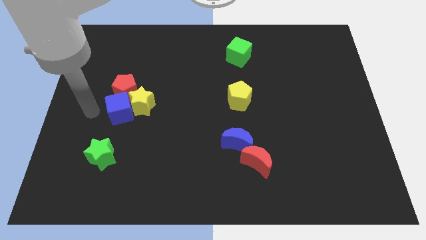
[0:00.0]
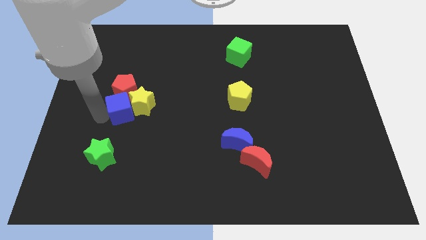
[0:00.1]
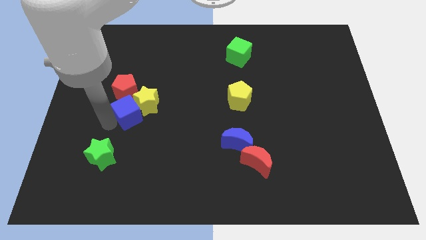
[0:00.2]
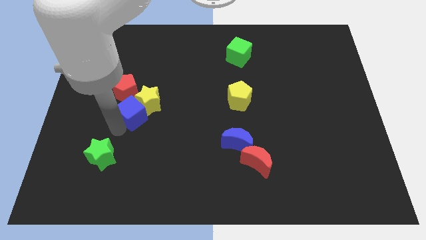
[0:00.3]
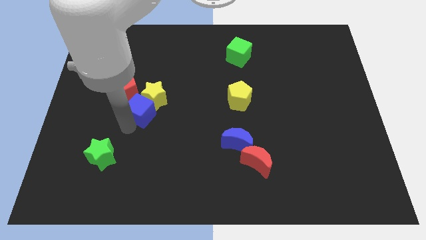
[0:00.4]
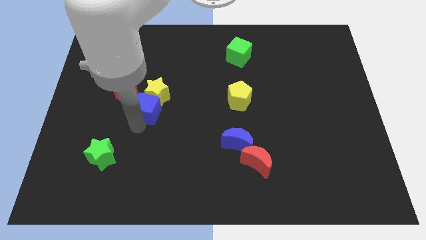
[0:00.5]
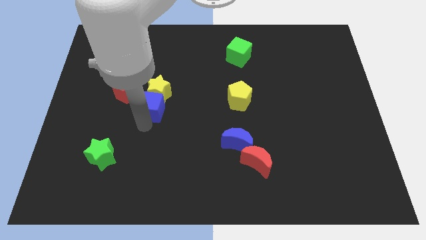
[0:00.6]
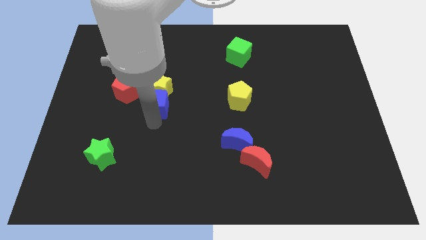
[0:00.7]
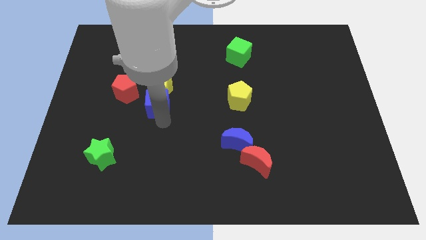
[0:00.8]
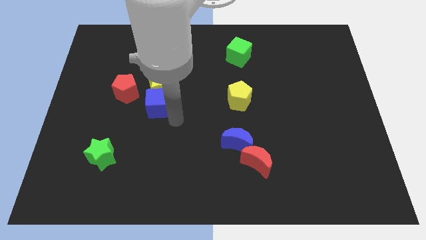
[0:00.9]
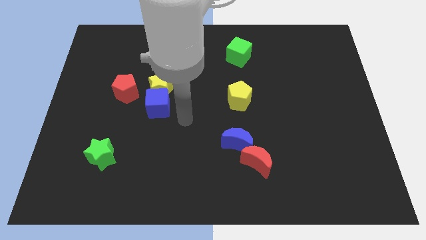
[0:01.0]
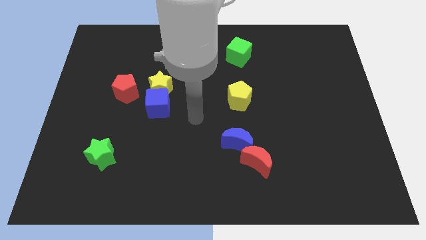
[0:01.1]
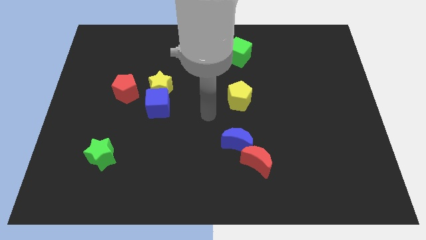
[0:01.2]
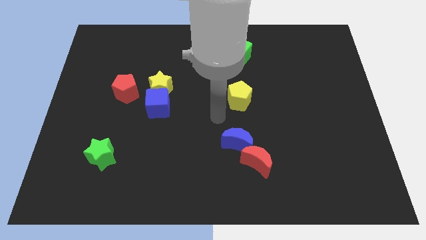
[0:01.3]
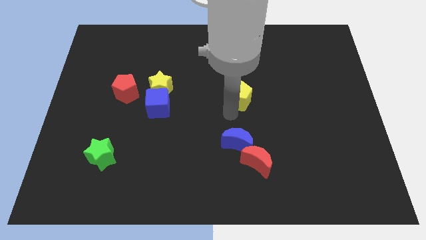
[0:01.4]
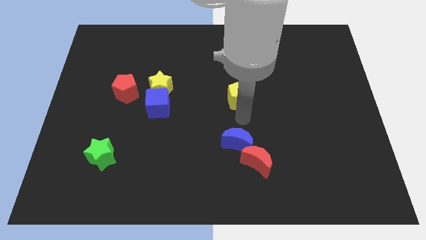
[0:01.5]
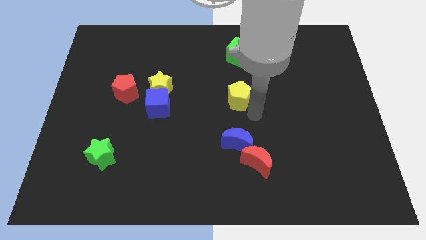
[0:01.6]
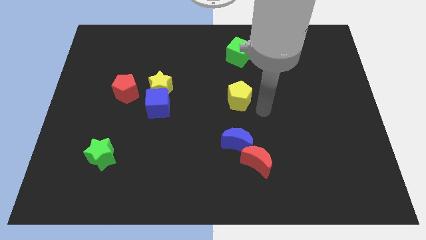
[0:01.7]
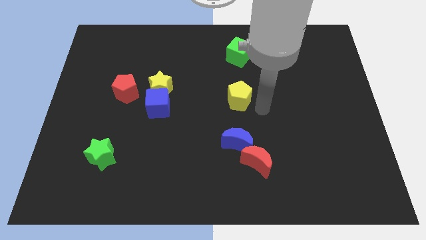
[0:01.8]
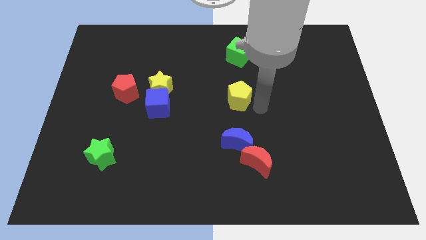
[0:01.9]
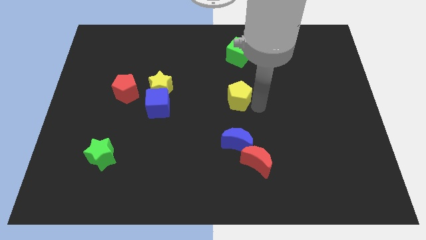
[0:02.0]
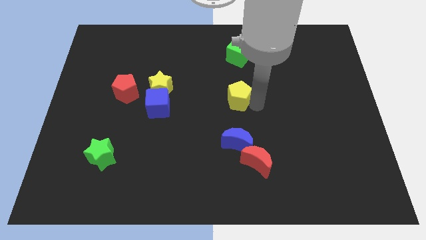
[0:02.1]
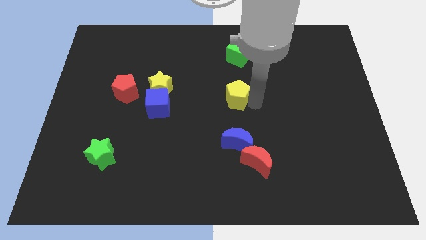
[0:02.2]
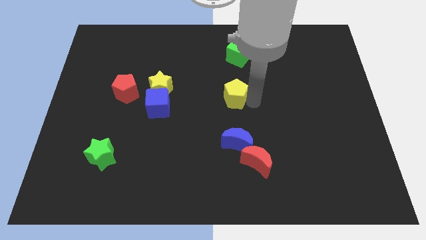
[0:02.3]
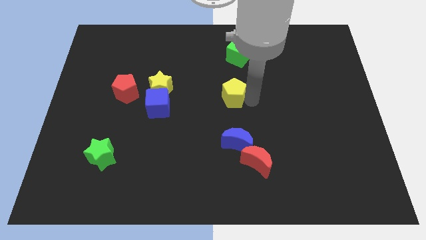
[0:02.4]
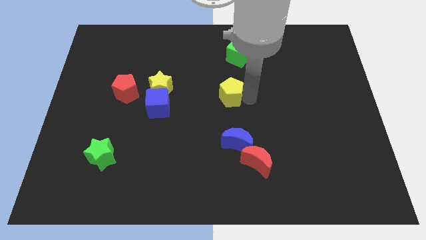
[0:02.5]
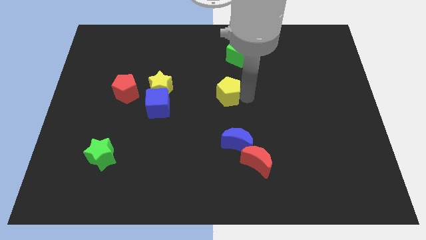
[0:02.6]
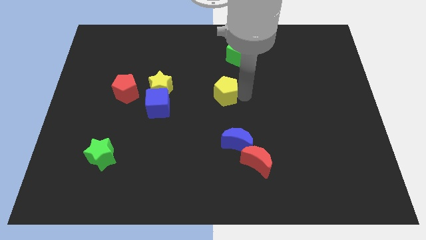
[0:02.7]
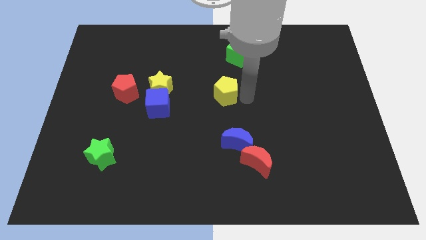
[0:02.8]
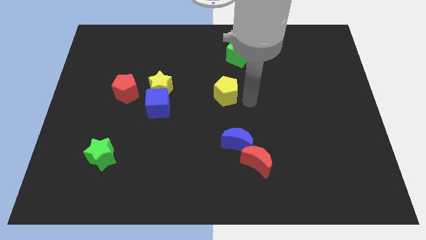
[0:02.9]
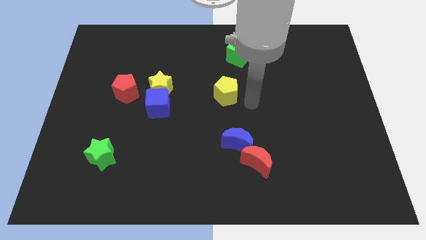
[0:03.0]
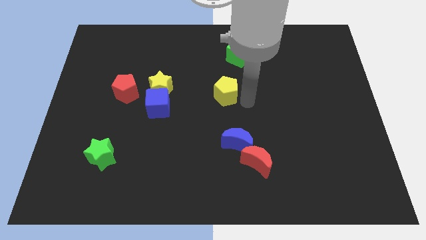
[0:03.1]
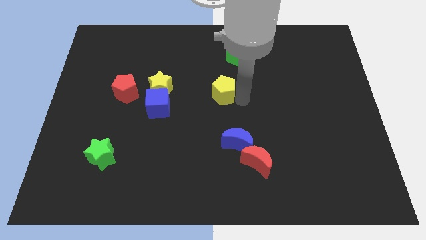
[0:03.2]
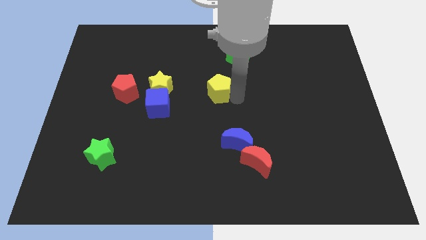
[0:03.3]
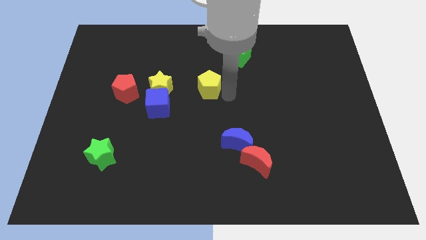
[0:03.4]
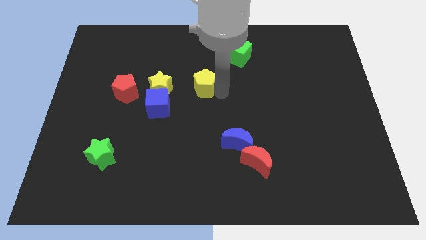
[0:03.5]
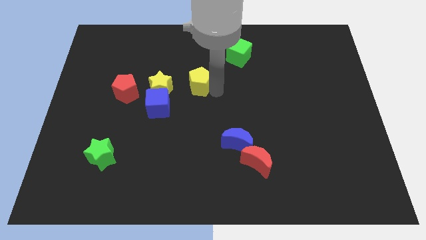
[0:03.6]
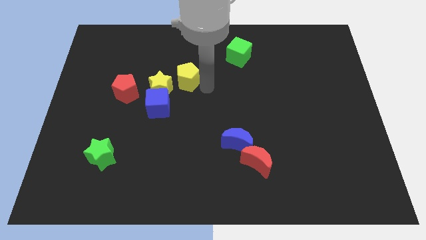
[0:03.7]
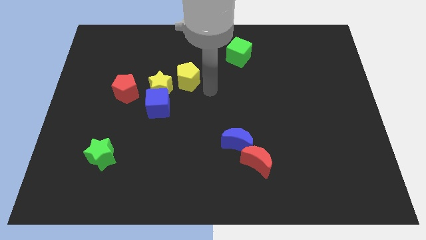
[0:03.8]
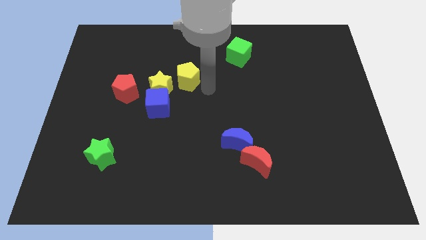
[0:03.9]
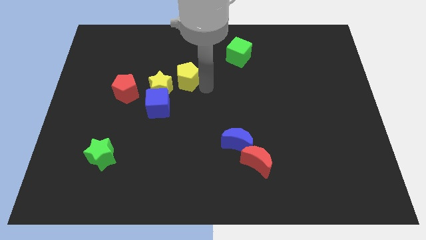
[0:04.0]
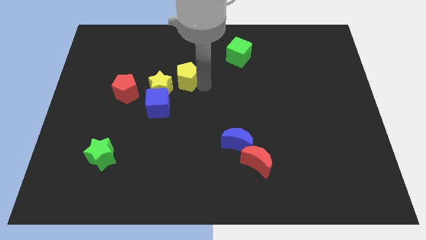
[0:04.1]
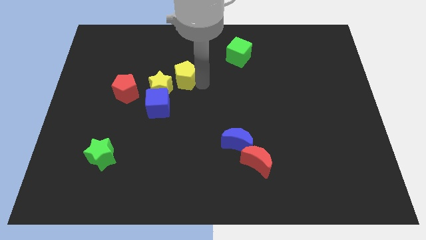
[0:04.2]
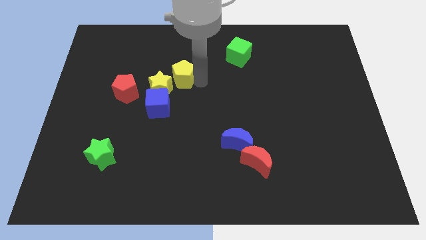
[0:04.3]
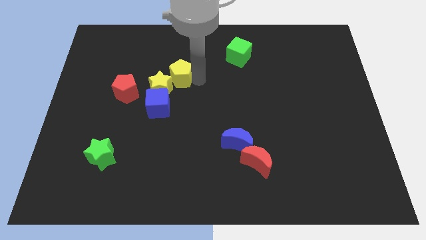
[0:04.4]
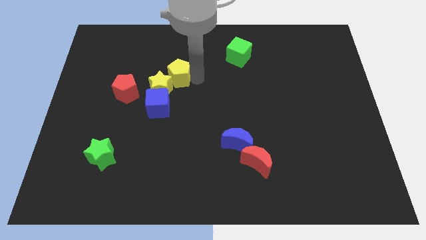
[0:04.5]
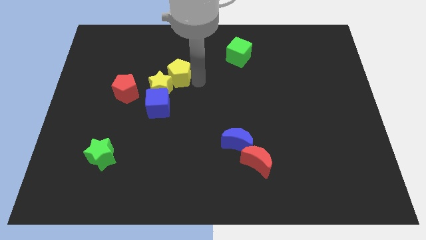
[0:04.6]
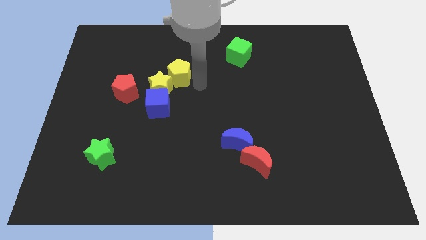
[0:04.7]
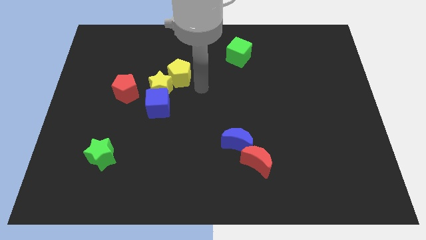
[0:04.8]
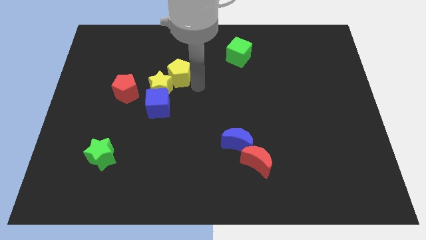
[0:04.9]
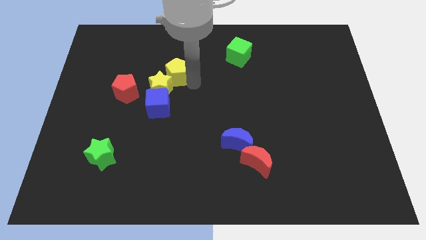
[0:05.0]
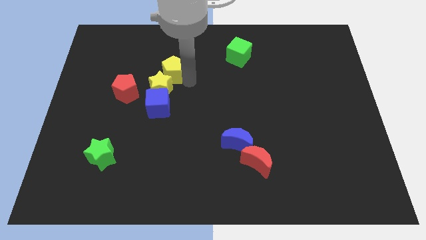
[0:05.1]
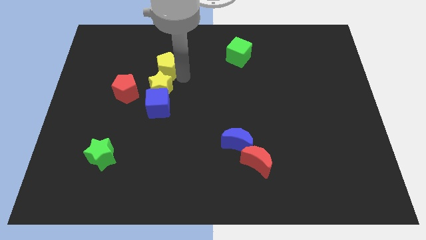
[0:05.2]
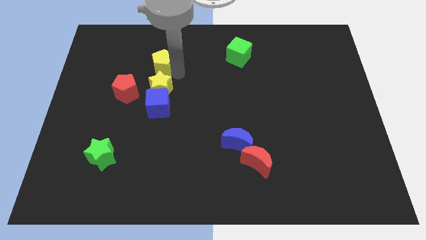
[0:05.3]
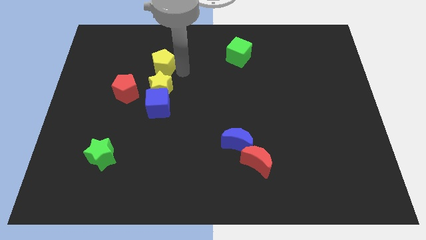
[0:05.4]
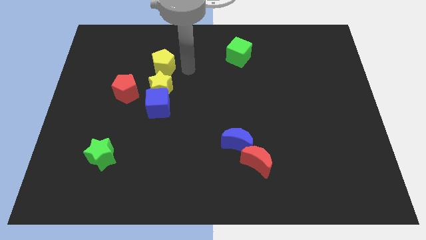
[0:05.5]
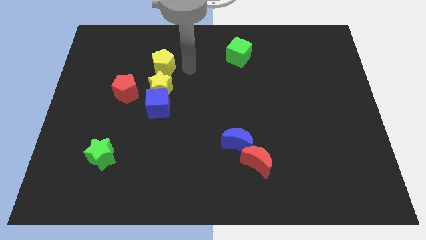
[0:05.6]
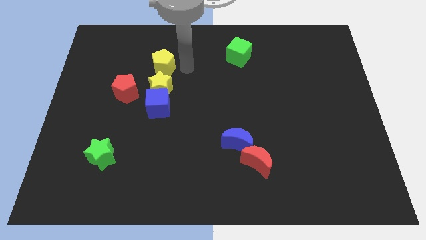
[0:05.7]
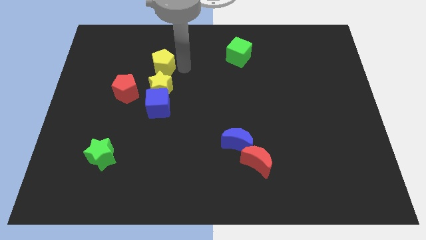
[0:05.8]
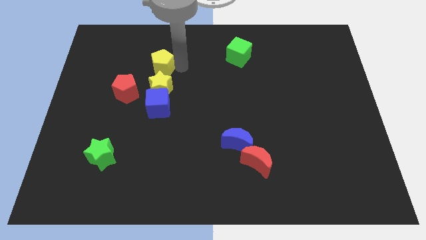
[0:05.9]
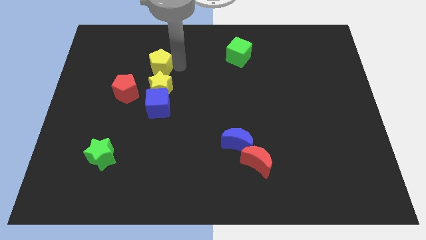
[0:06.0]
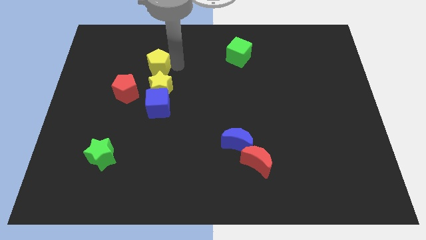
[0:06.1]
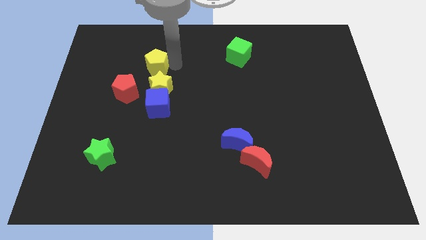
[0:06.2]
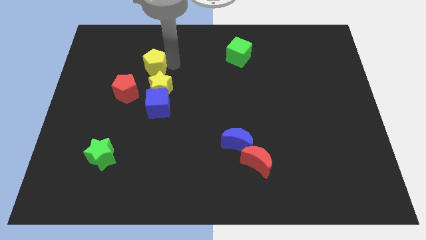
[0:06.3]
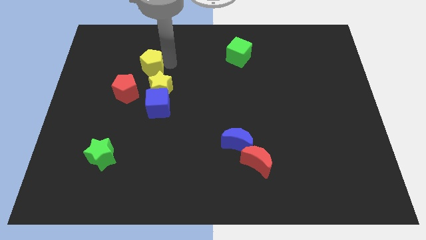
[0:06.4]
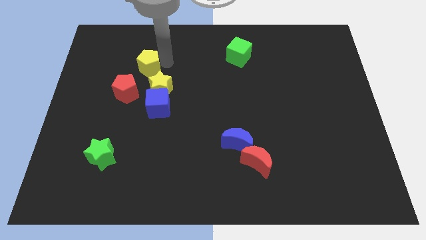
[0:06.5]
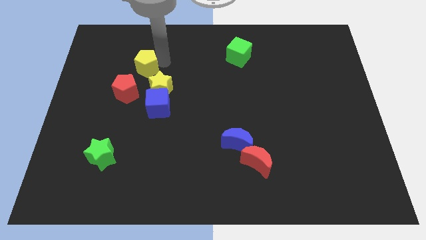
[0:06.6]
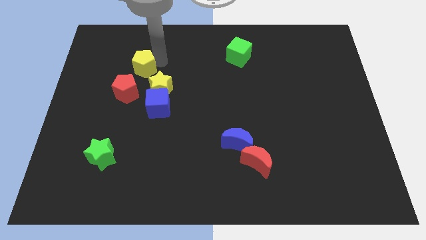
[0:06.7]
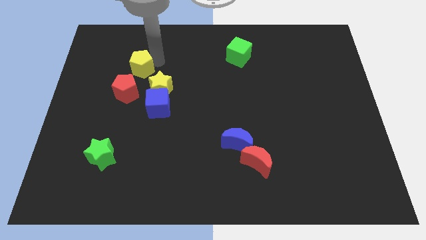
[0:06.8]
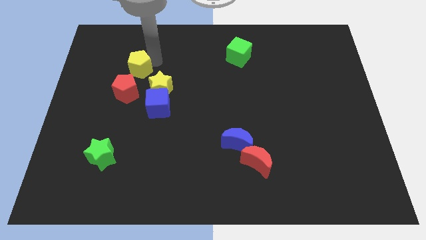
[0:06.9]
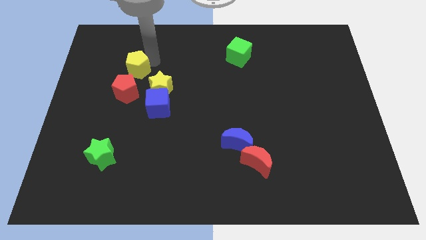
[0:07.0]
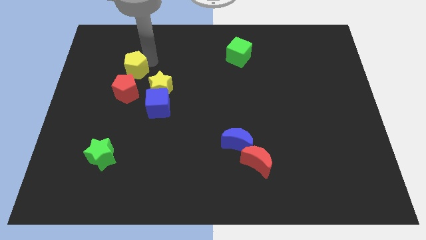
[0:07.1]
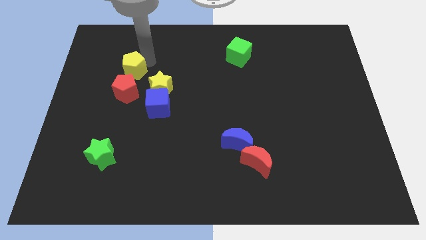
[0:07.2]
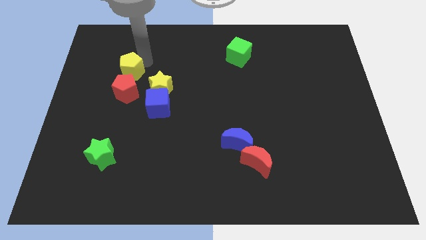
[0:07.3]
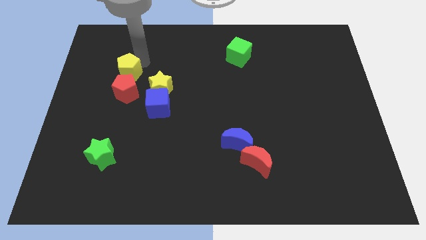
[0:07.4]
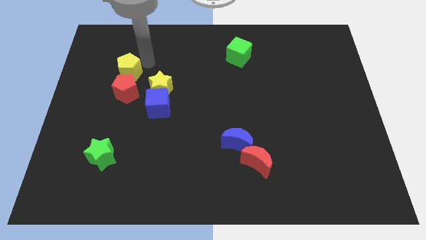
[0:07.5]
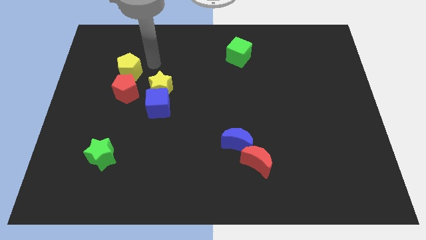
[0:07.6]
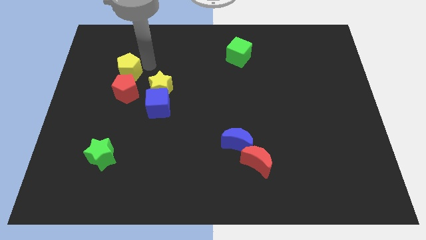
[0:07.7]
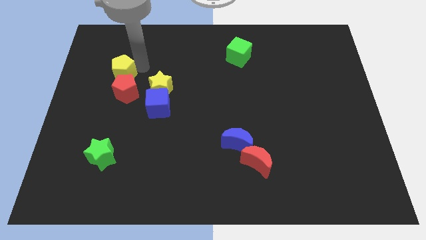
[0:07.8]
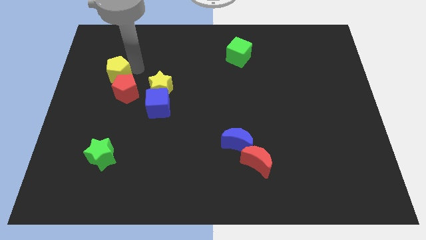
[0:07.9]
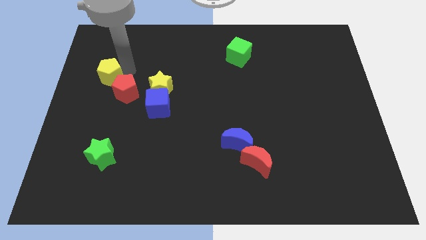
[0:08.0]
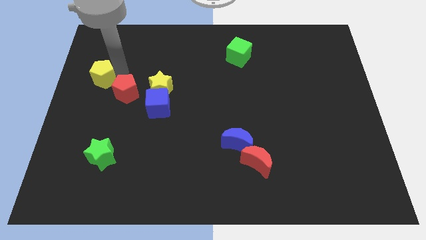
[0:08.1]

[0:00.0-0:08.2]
move the yellow pentagon to the left side of the board
